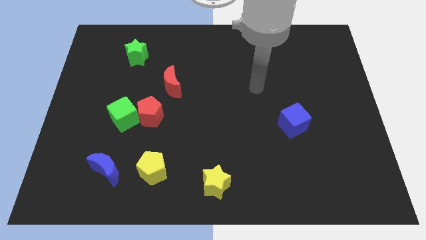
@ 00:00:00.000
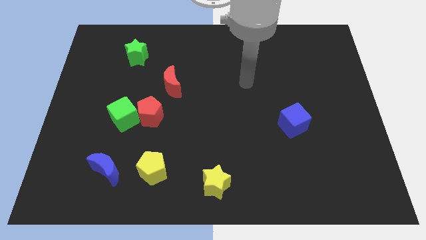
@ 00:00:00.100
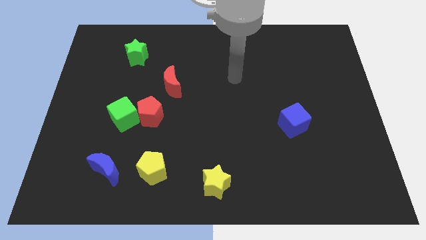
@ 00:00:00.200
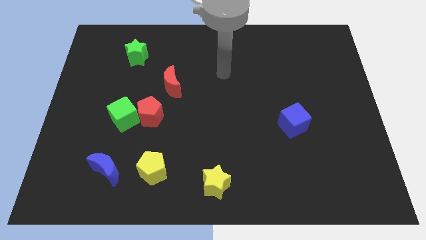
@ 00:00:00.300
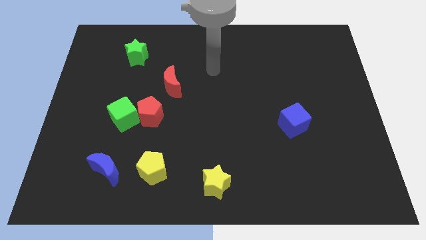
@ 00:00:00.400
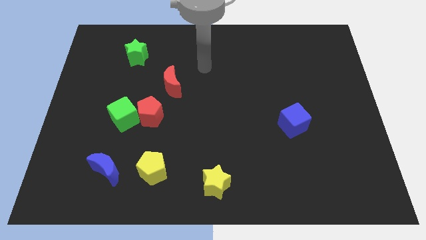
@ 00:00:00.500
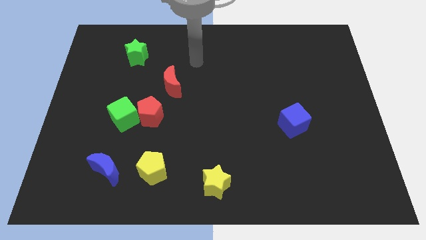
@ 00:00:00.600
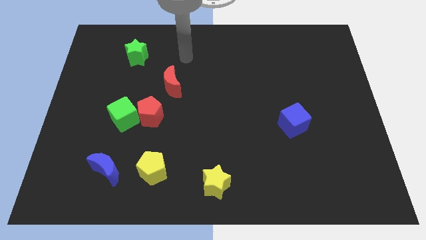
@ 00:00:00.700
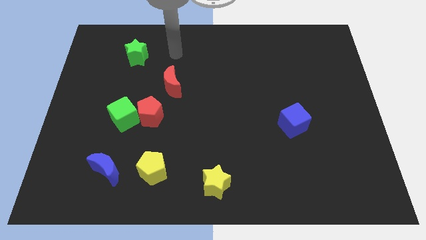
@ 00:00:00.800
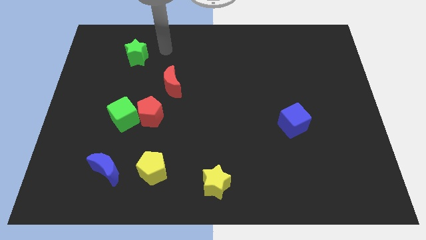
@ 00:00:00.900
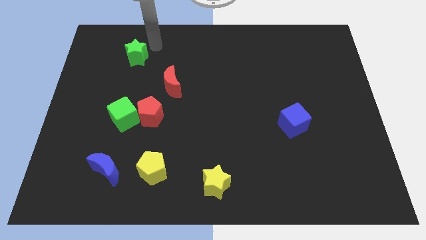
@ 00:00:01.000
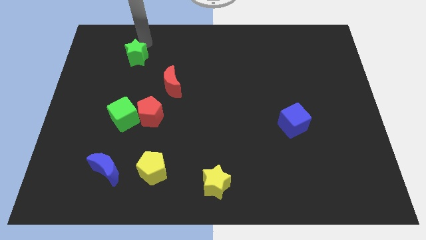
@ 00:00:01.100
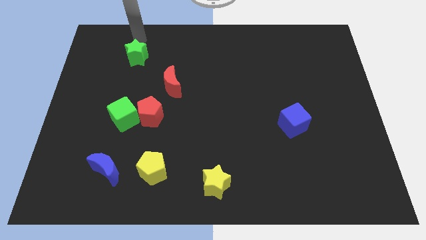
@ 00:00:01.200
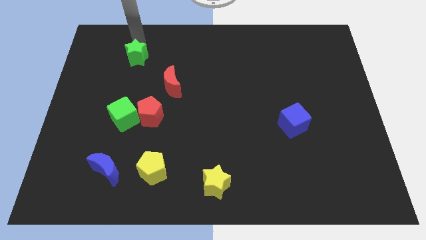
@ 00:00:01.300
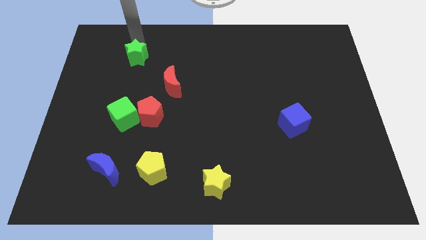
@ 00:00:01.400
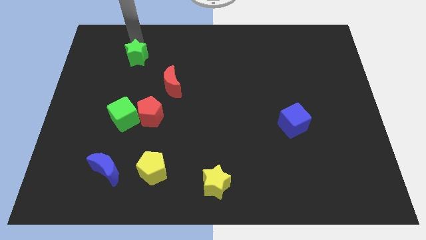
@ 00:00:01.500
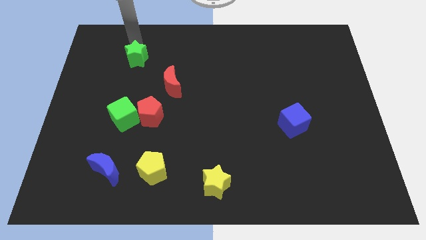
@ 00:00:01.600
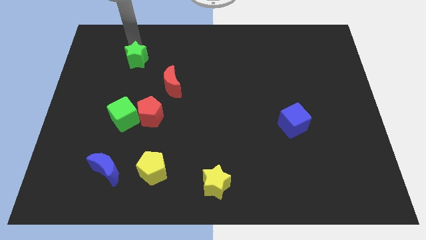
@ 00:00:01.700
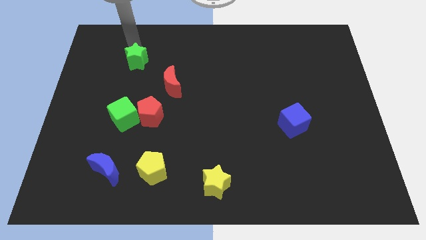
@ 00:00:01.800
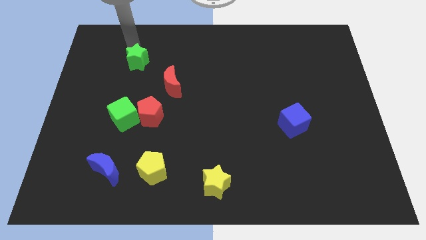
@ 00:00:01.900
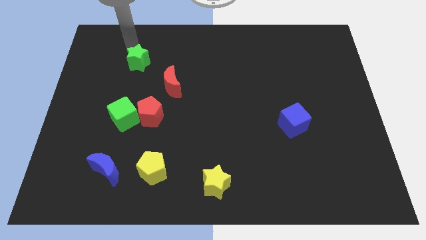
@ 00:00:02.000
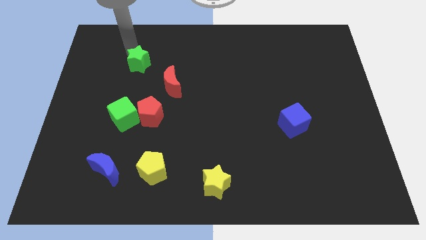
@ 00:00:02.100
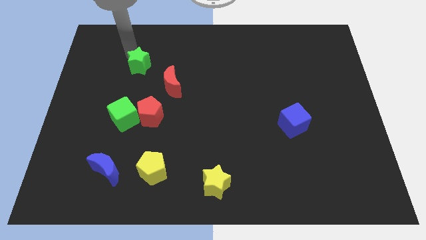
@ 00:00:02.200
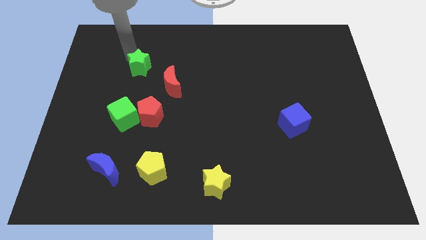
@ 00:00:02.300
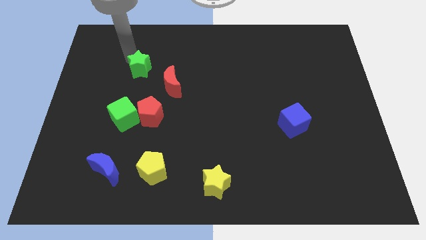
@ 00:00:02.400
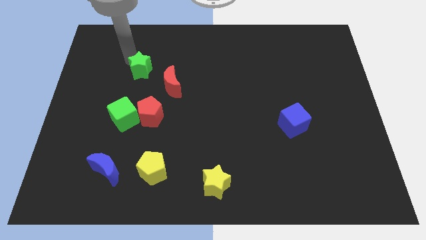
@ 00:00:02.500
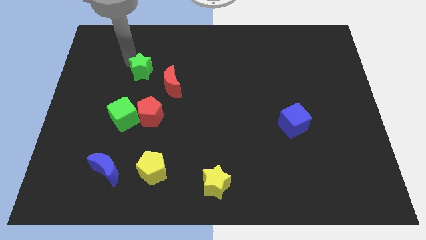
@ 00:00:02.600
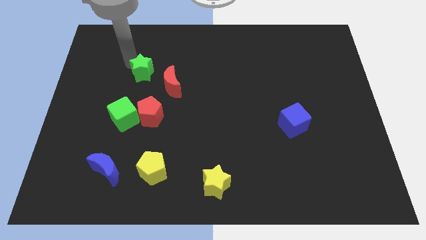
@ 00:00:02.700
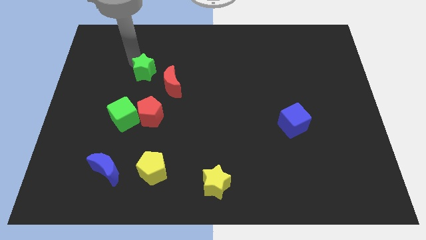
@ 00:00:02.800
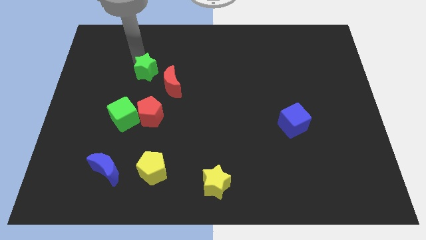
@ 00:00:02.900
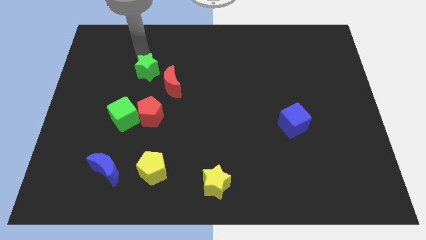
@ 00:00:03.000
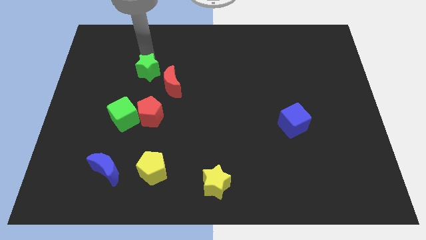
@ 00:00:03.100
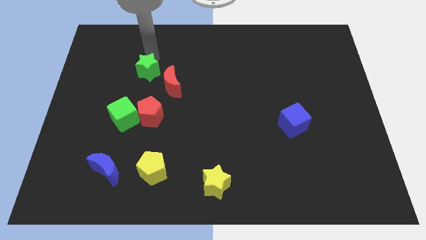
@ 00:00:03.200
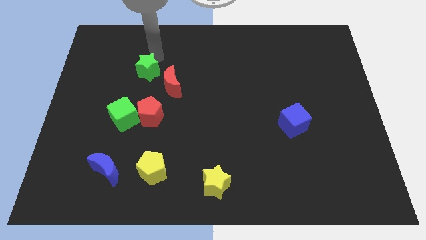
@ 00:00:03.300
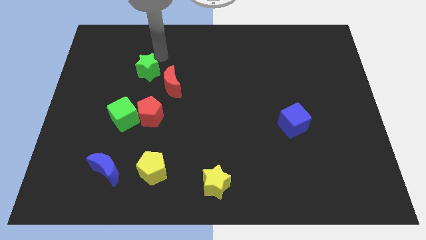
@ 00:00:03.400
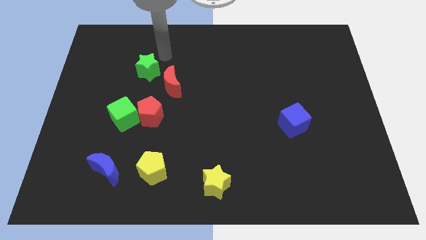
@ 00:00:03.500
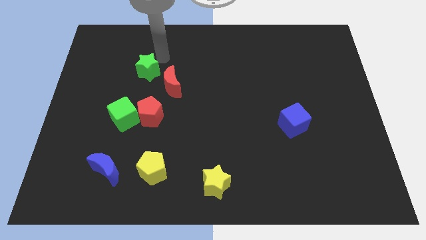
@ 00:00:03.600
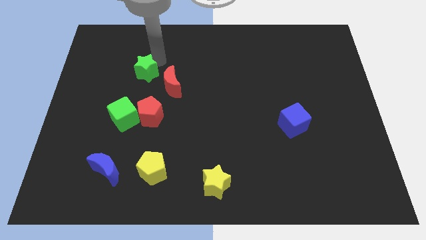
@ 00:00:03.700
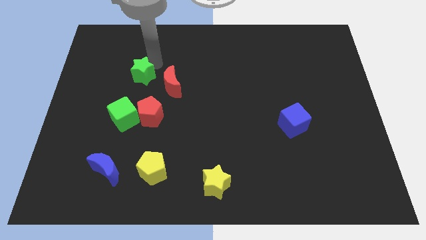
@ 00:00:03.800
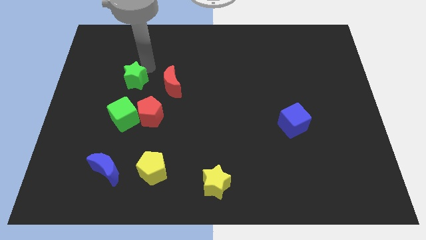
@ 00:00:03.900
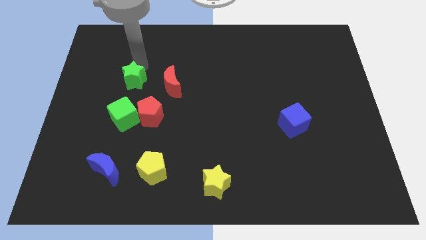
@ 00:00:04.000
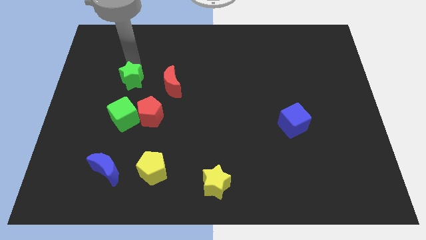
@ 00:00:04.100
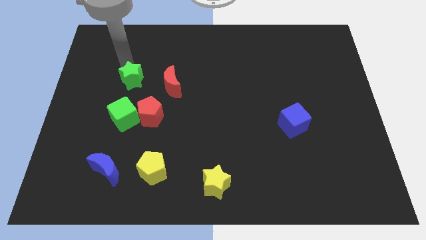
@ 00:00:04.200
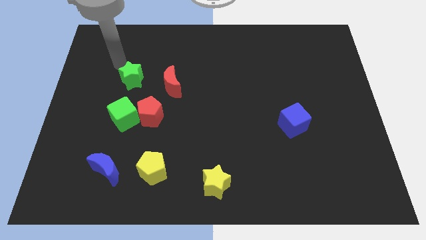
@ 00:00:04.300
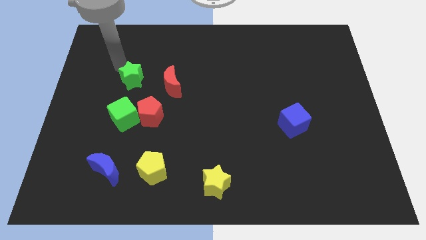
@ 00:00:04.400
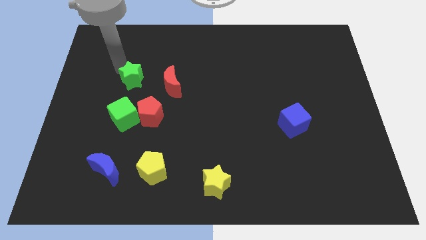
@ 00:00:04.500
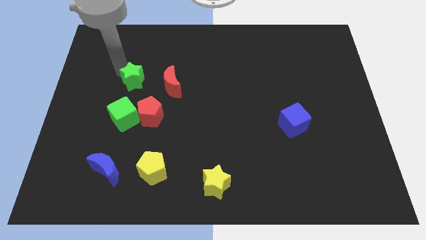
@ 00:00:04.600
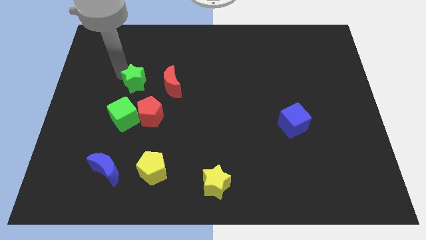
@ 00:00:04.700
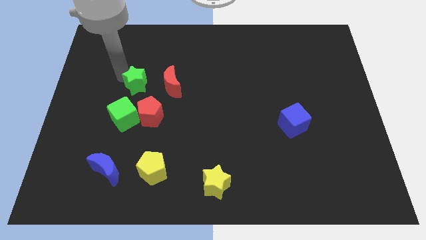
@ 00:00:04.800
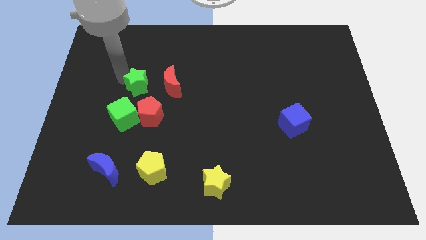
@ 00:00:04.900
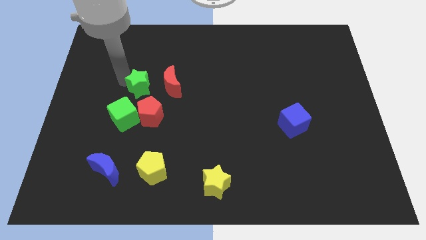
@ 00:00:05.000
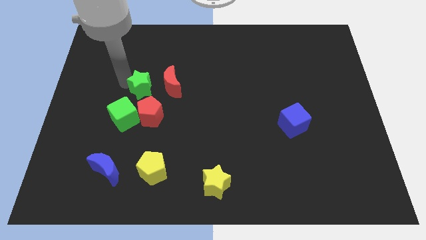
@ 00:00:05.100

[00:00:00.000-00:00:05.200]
slide the green star diagonally up and to the right of the green cube

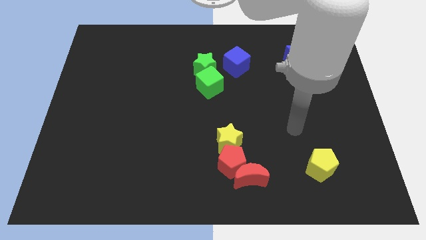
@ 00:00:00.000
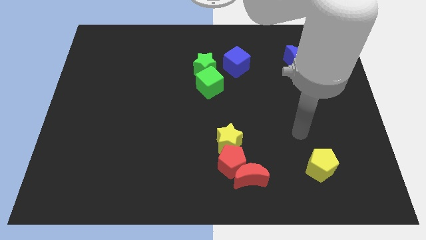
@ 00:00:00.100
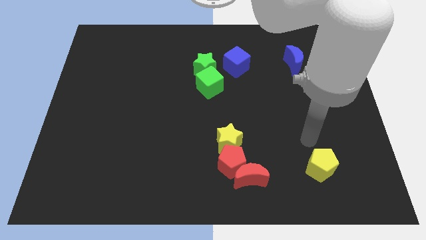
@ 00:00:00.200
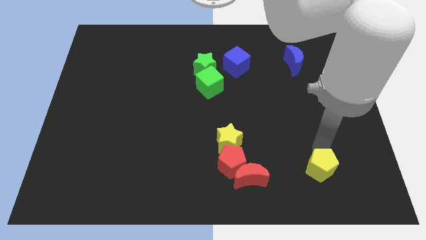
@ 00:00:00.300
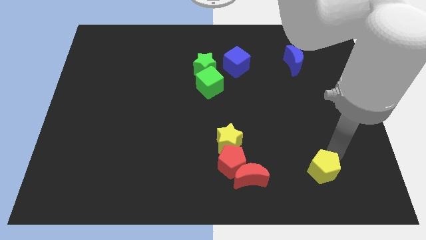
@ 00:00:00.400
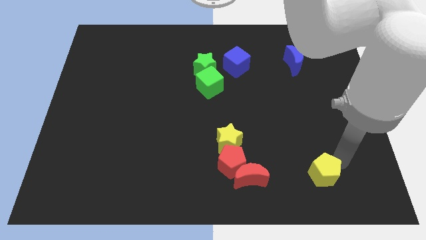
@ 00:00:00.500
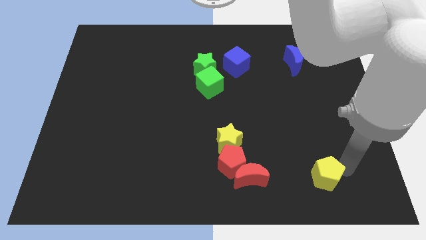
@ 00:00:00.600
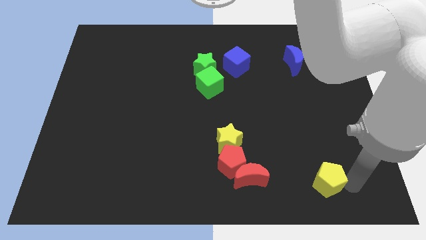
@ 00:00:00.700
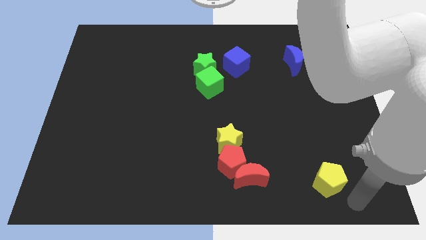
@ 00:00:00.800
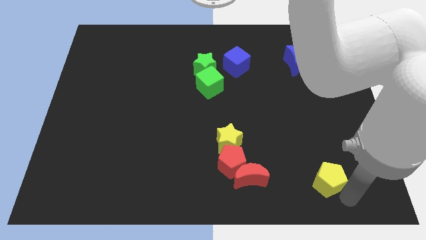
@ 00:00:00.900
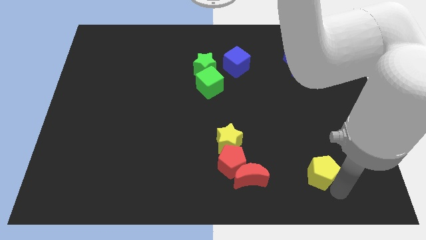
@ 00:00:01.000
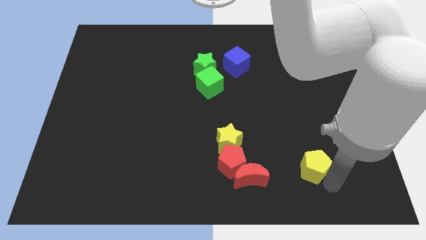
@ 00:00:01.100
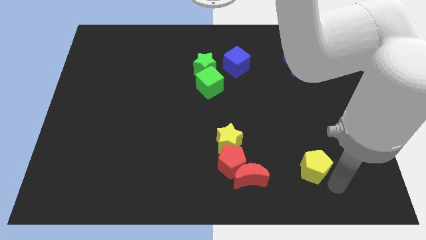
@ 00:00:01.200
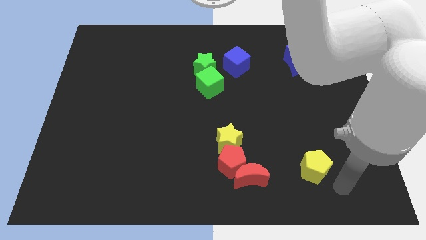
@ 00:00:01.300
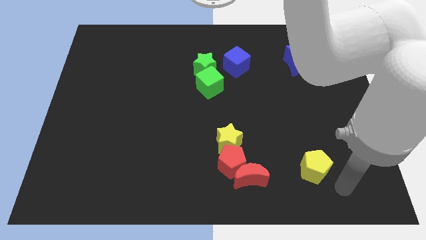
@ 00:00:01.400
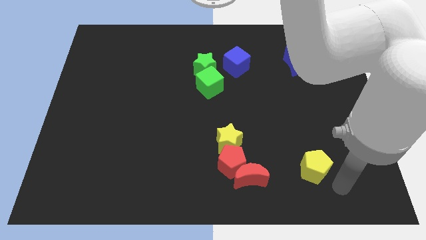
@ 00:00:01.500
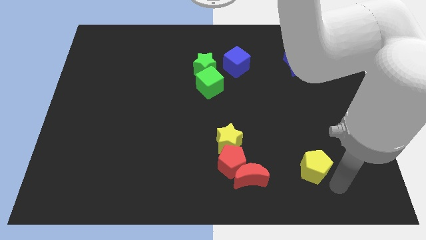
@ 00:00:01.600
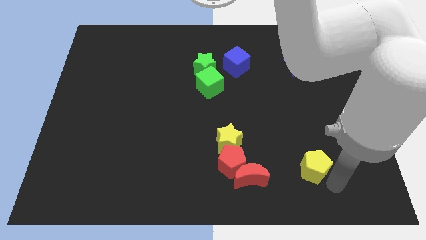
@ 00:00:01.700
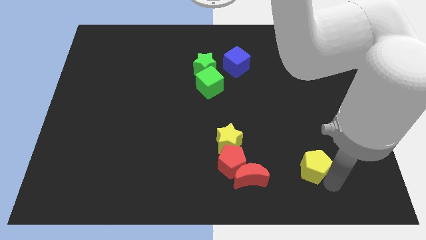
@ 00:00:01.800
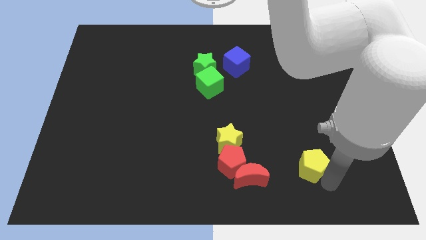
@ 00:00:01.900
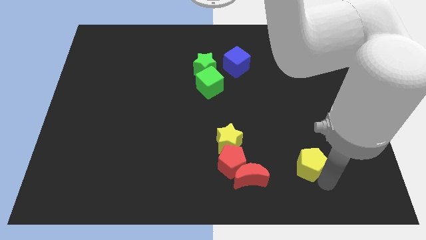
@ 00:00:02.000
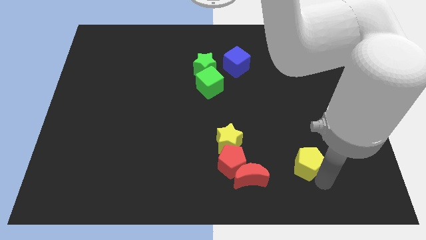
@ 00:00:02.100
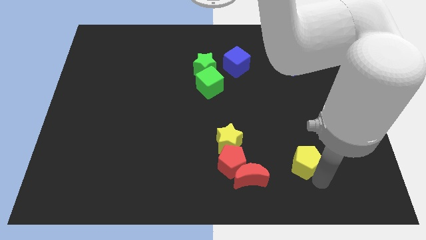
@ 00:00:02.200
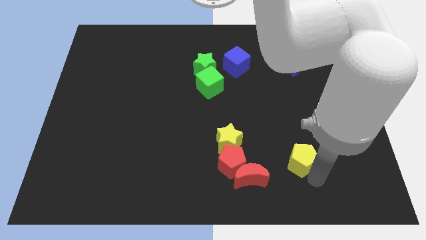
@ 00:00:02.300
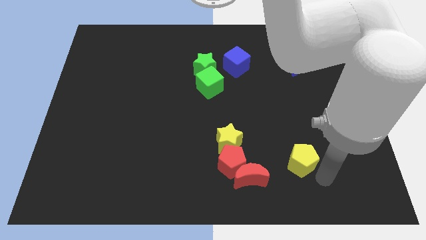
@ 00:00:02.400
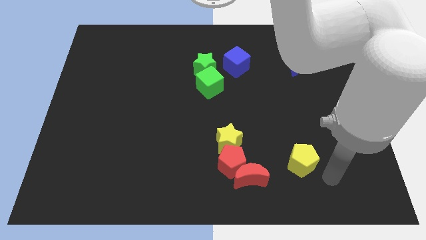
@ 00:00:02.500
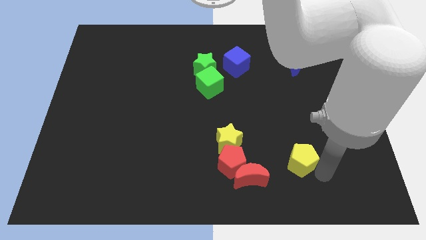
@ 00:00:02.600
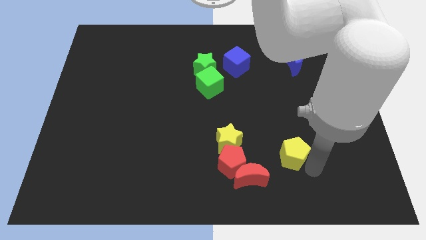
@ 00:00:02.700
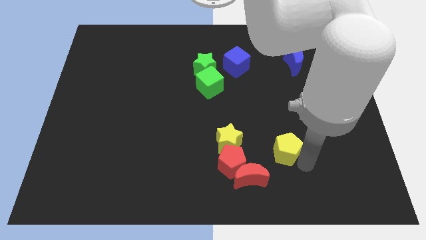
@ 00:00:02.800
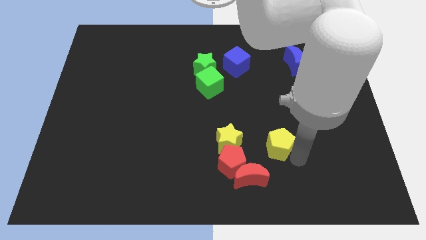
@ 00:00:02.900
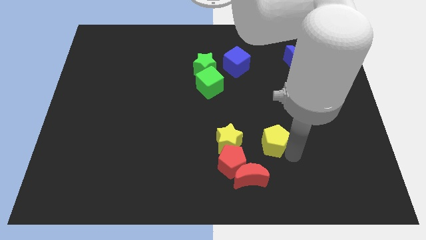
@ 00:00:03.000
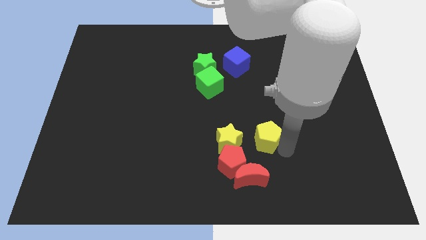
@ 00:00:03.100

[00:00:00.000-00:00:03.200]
put the yellow pentagon above the red moon
